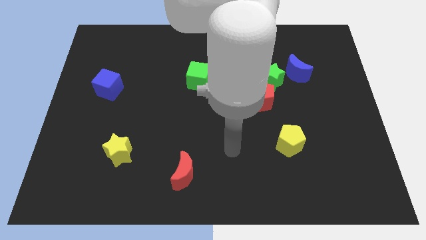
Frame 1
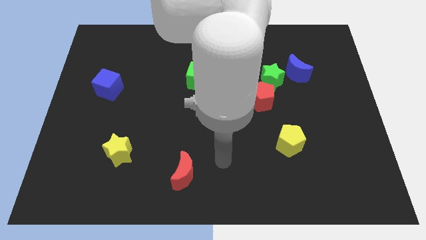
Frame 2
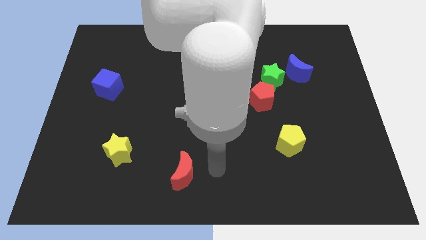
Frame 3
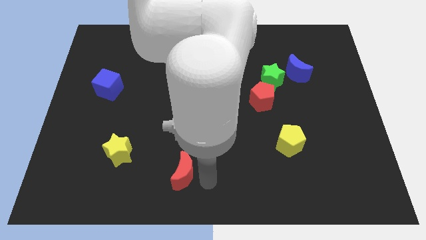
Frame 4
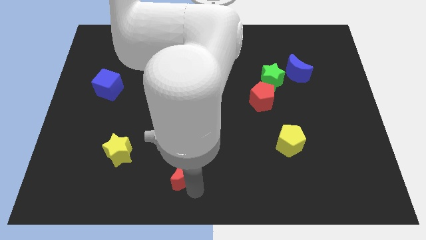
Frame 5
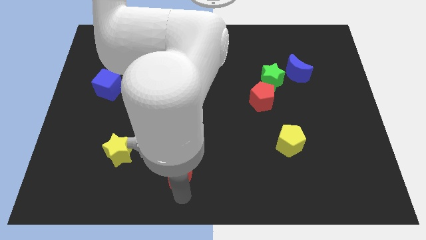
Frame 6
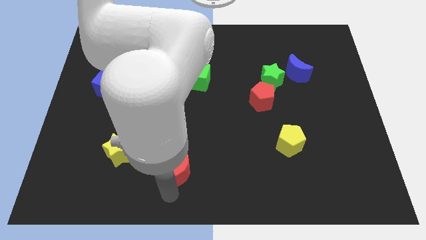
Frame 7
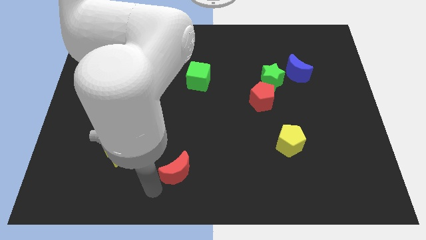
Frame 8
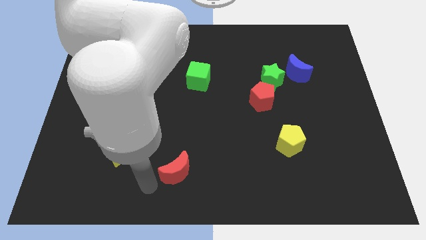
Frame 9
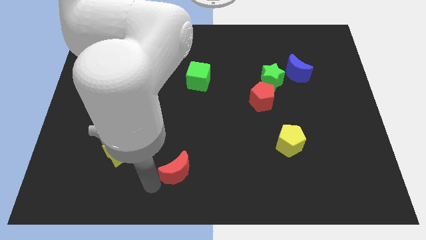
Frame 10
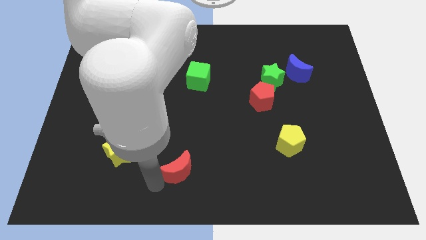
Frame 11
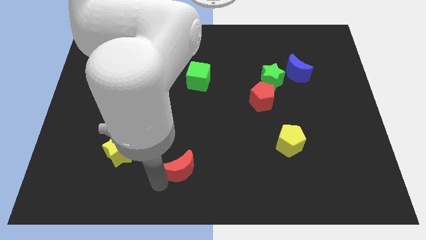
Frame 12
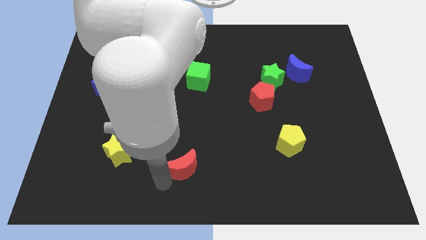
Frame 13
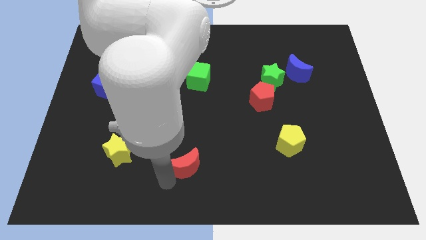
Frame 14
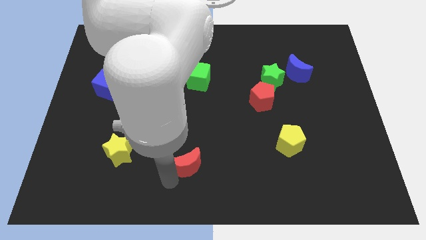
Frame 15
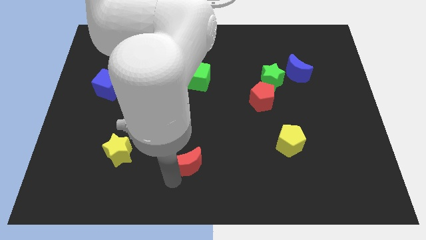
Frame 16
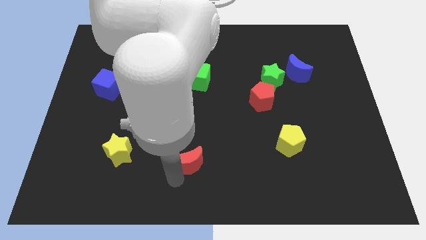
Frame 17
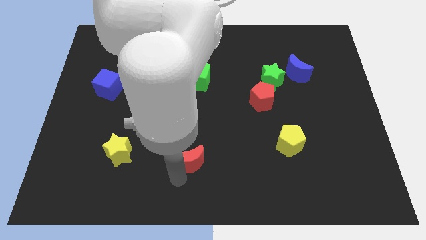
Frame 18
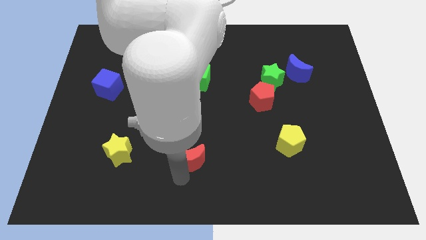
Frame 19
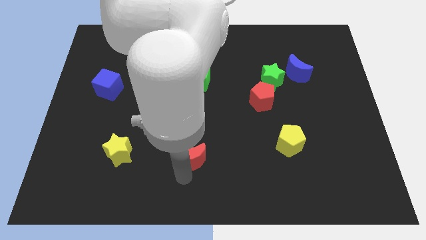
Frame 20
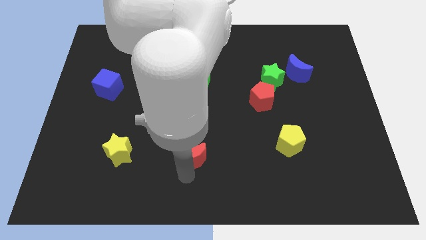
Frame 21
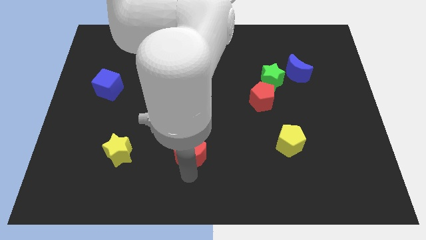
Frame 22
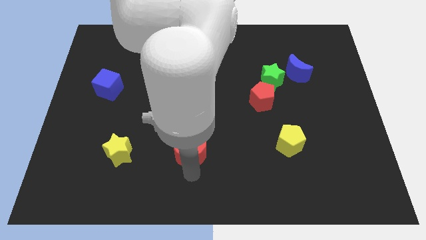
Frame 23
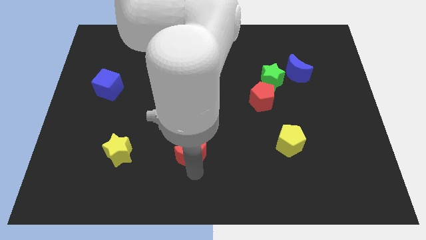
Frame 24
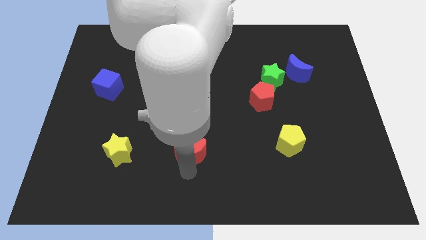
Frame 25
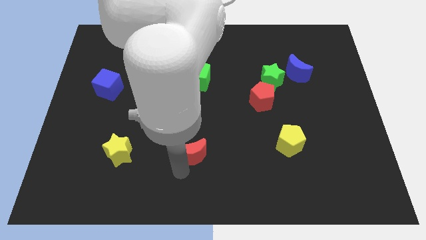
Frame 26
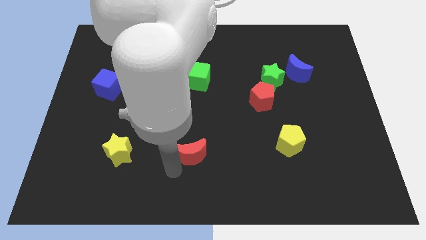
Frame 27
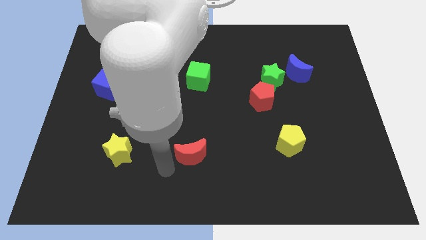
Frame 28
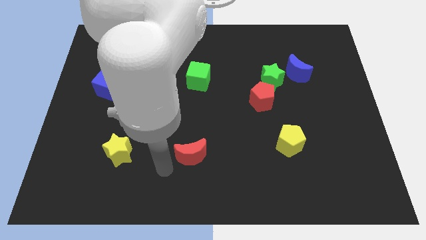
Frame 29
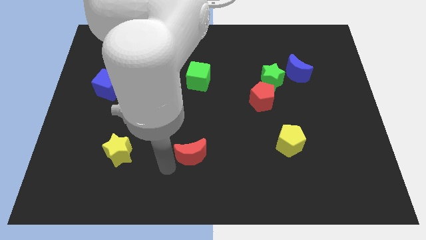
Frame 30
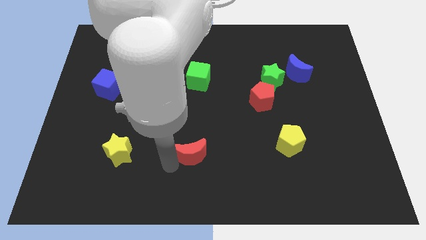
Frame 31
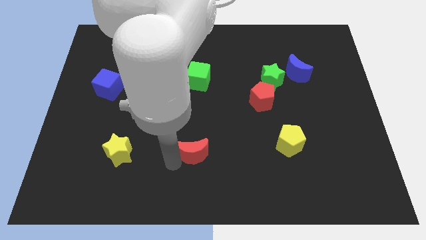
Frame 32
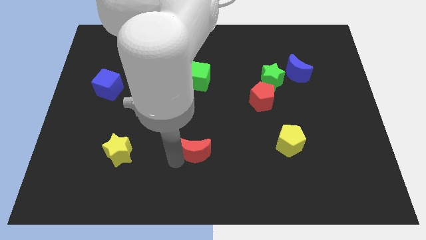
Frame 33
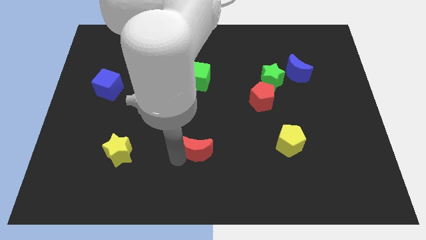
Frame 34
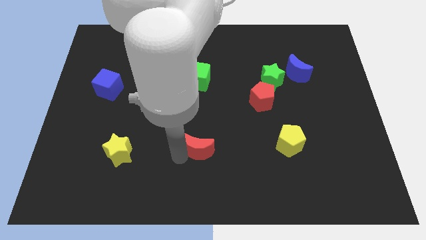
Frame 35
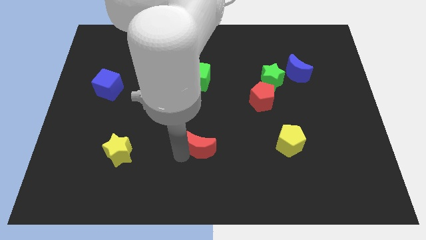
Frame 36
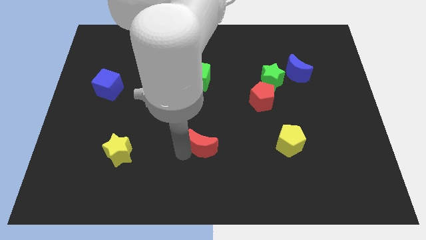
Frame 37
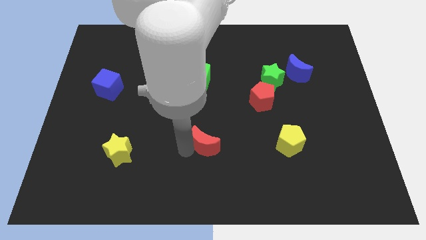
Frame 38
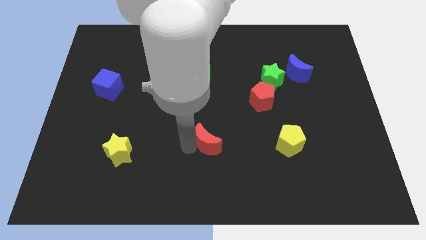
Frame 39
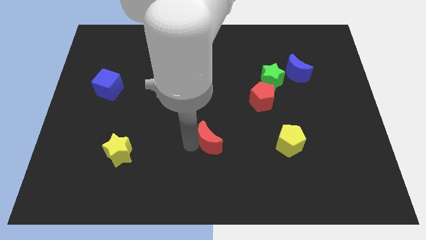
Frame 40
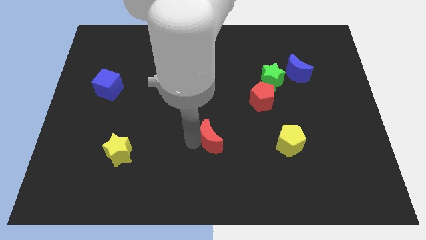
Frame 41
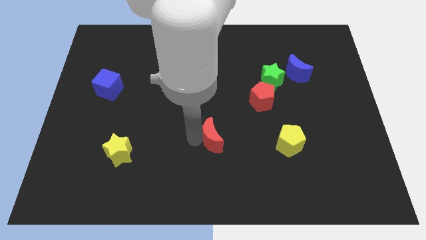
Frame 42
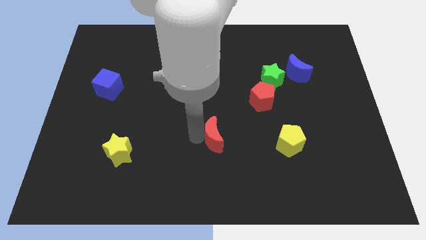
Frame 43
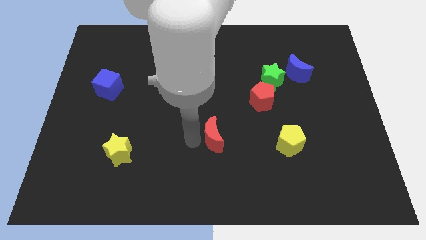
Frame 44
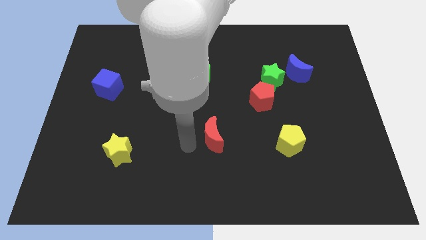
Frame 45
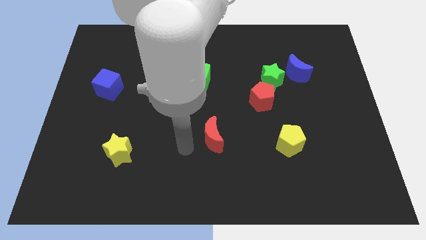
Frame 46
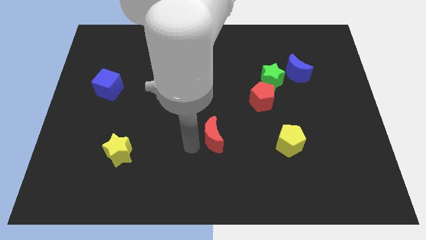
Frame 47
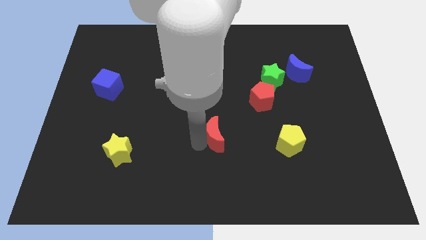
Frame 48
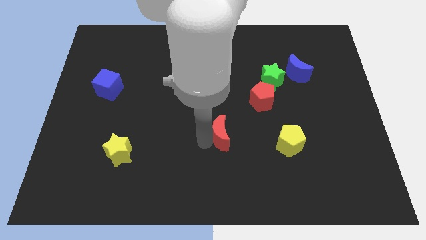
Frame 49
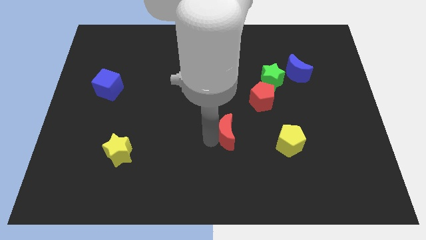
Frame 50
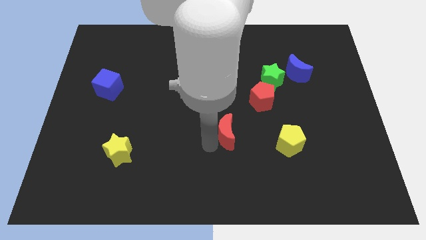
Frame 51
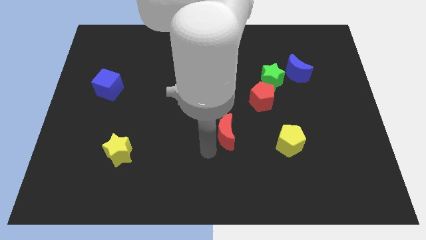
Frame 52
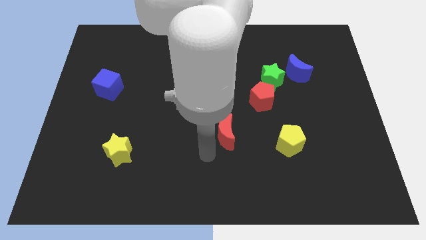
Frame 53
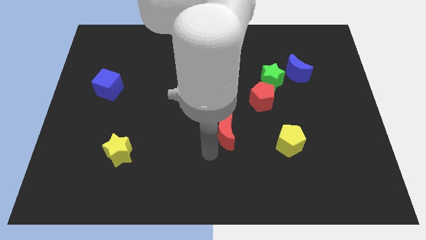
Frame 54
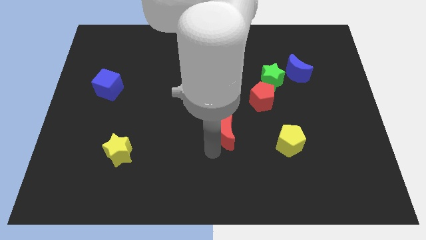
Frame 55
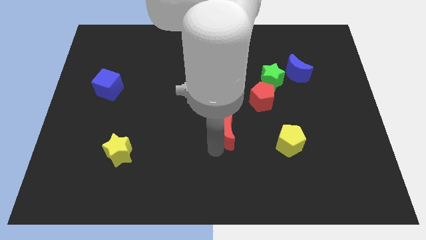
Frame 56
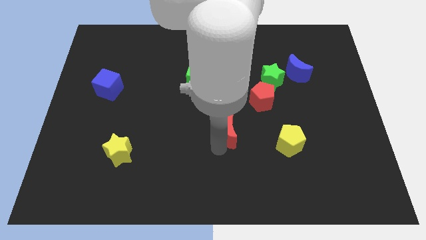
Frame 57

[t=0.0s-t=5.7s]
slide the red moon to the bottom left side of the red pentagon

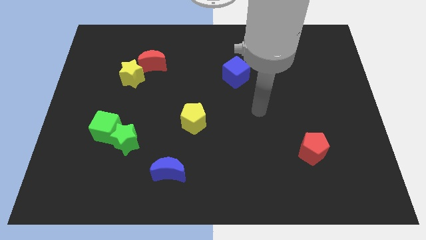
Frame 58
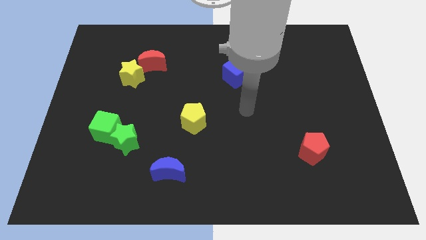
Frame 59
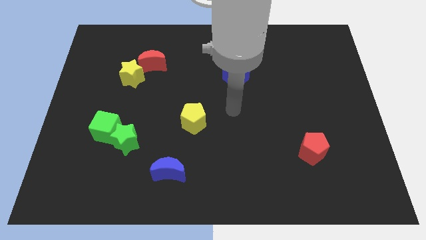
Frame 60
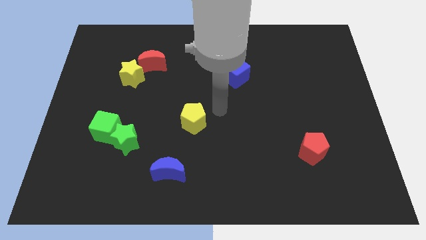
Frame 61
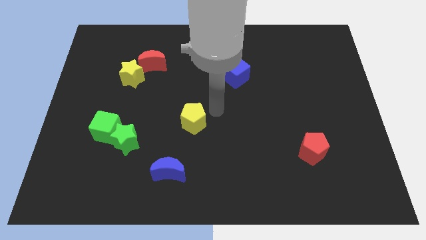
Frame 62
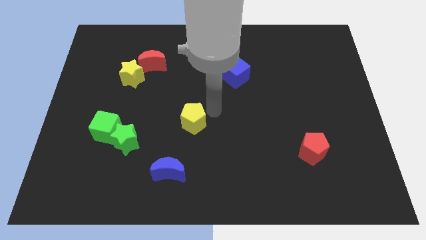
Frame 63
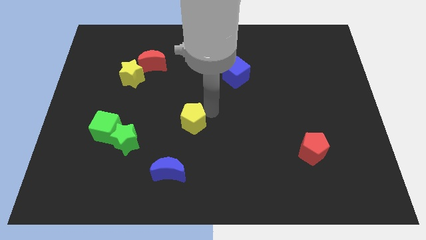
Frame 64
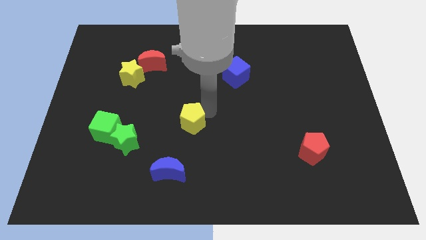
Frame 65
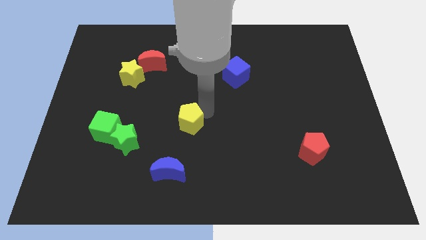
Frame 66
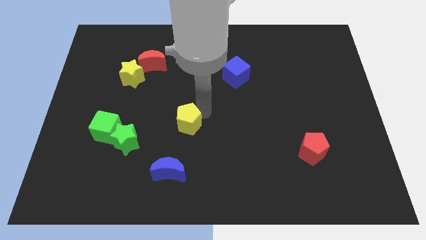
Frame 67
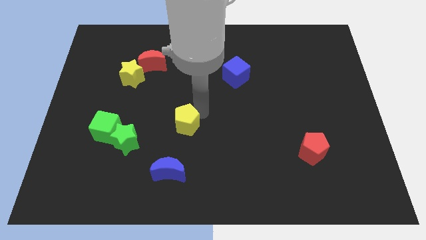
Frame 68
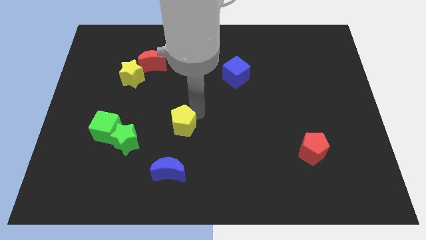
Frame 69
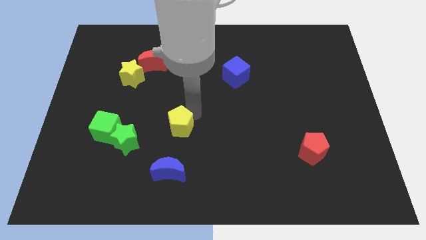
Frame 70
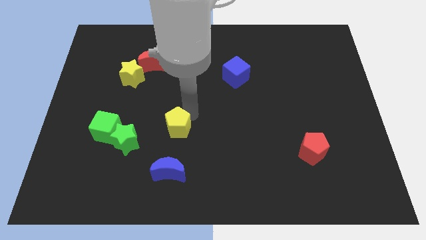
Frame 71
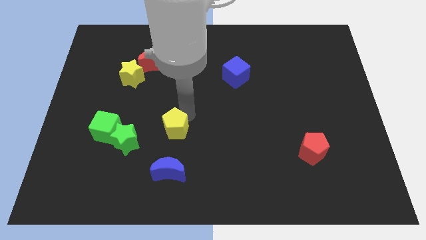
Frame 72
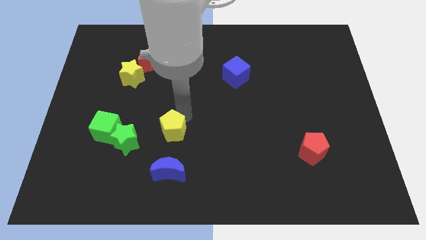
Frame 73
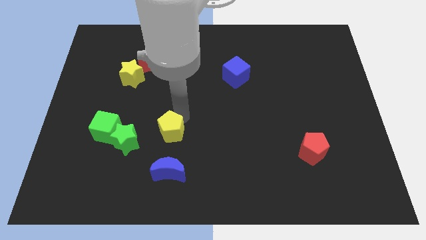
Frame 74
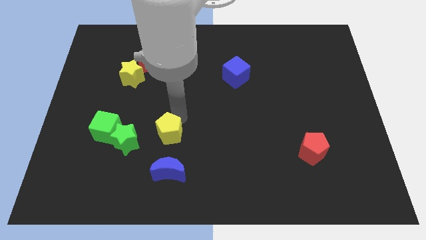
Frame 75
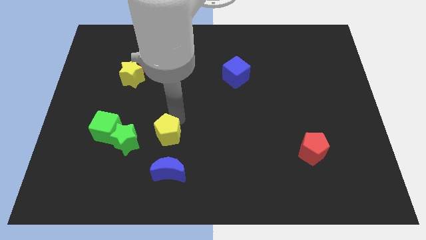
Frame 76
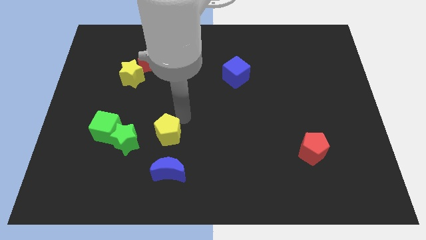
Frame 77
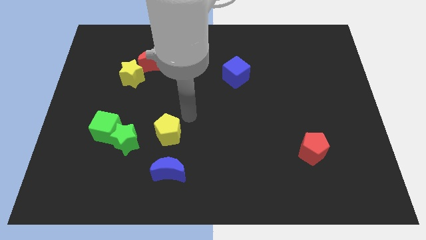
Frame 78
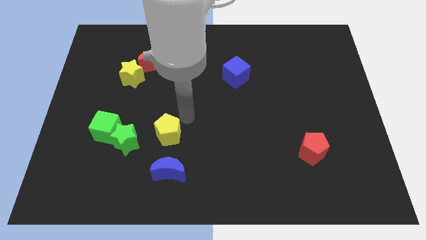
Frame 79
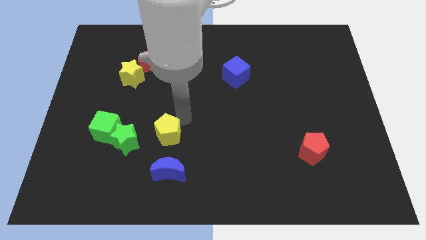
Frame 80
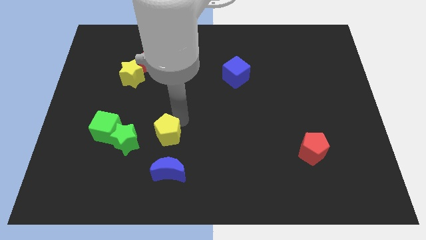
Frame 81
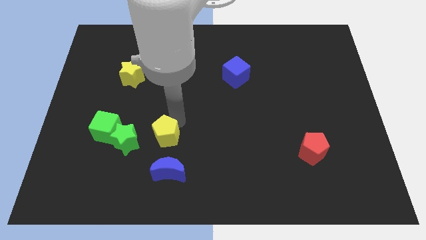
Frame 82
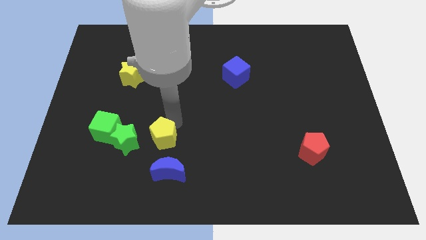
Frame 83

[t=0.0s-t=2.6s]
put the yellow pentagon to the top left of the blue moon
